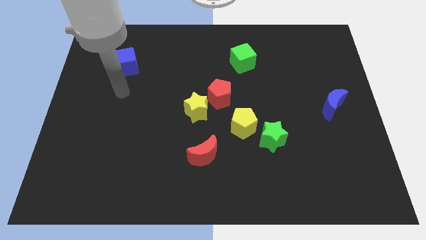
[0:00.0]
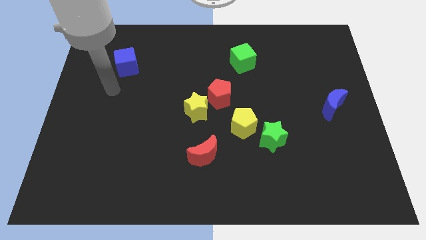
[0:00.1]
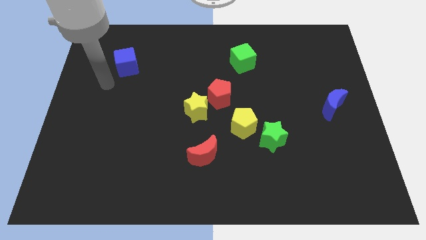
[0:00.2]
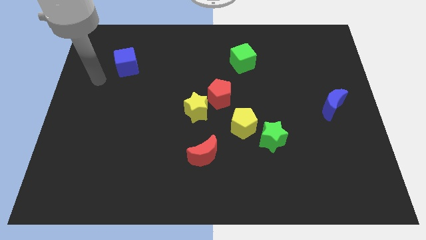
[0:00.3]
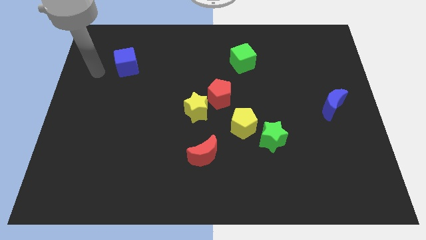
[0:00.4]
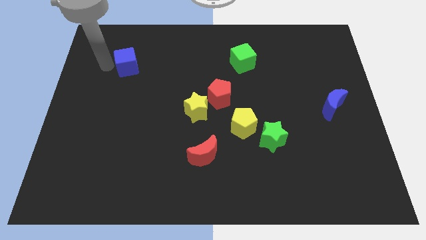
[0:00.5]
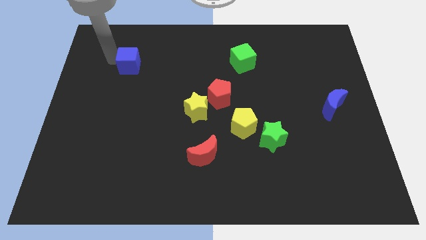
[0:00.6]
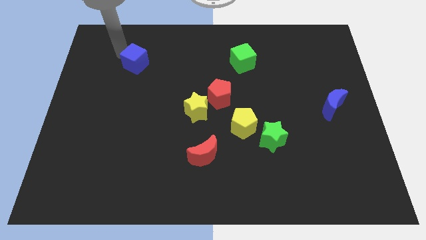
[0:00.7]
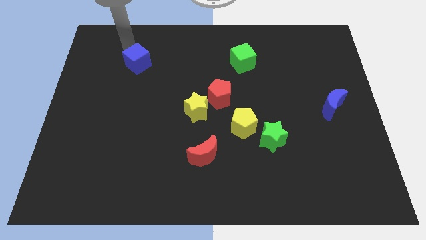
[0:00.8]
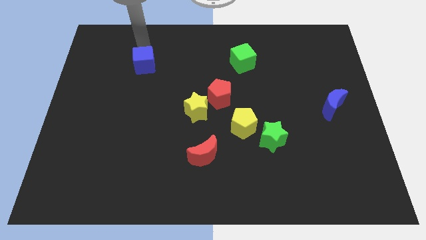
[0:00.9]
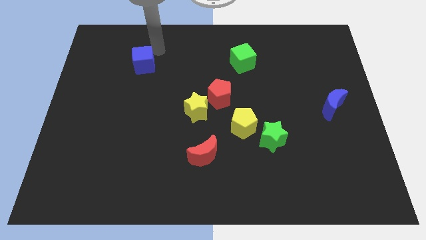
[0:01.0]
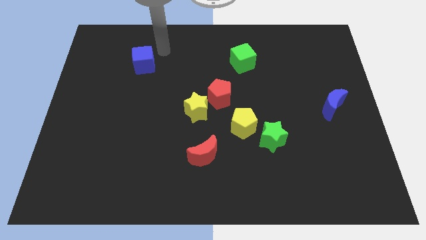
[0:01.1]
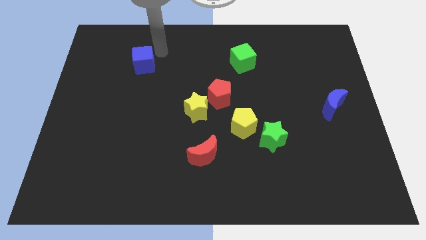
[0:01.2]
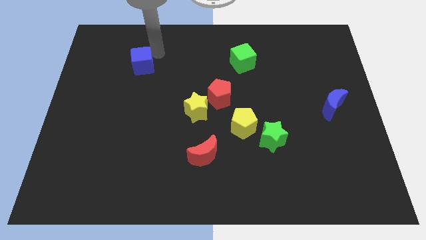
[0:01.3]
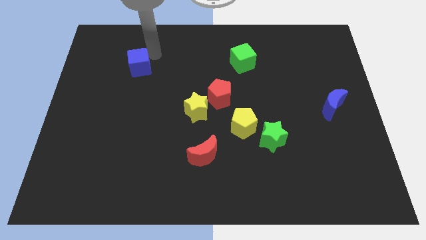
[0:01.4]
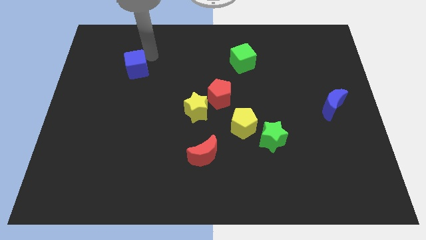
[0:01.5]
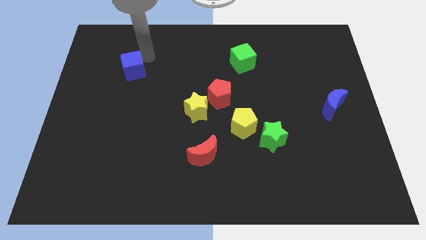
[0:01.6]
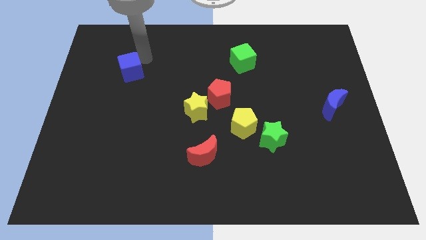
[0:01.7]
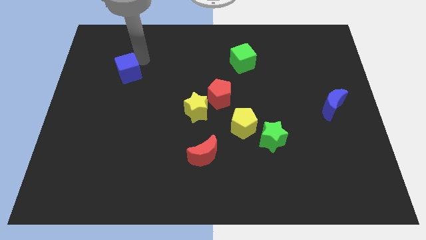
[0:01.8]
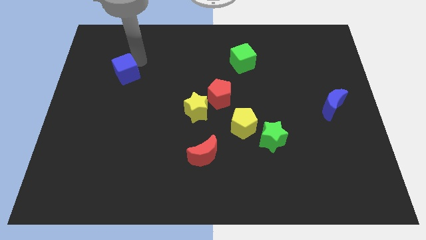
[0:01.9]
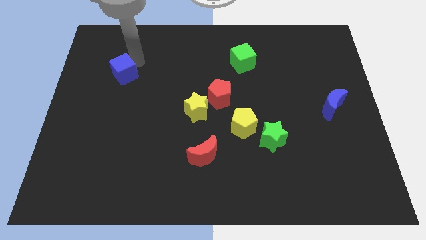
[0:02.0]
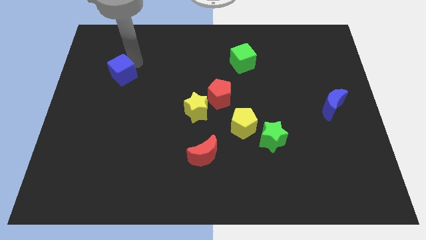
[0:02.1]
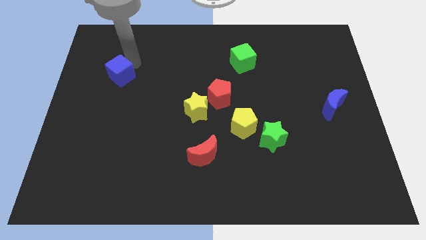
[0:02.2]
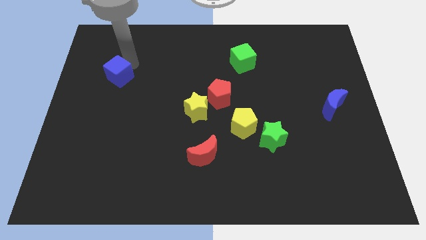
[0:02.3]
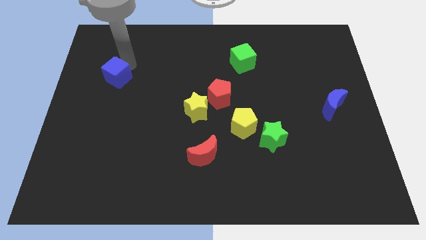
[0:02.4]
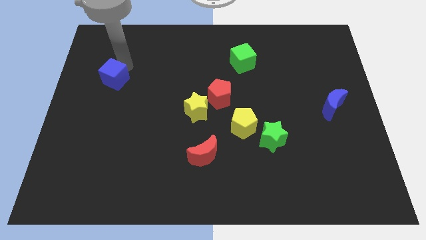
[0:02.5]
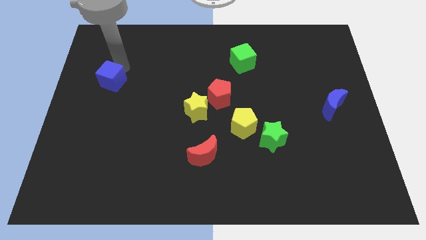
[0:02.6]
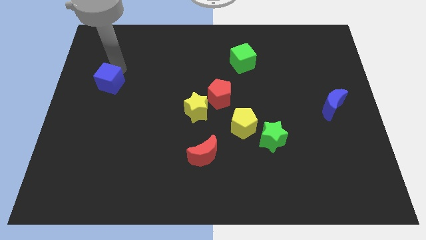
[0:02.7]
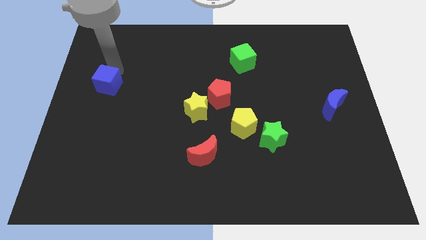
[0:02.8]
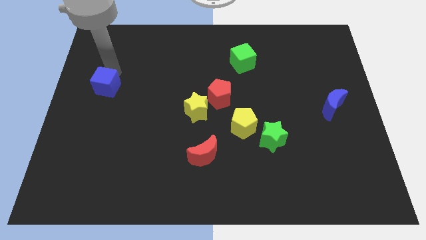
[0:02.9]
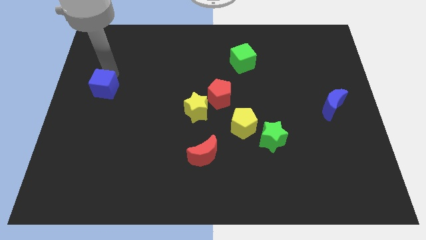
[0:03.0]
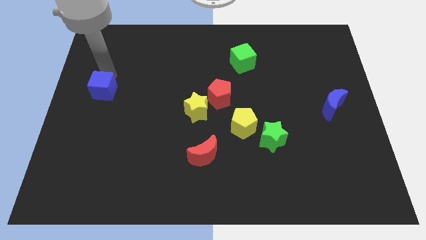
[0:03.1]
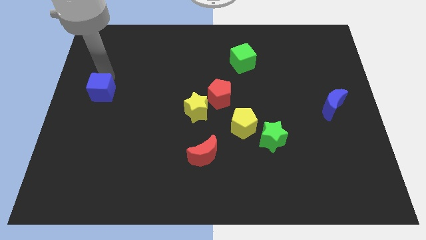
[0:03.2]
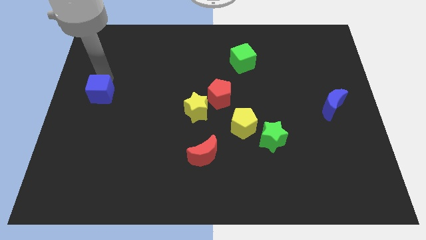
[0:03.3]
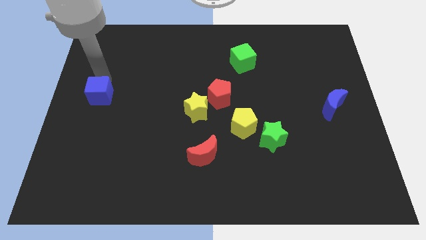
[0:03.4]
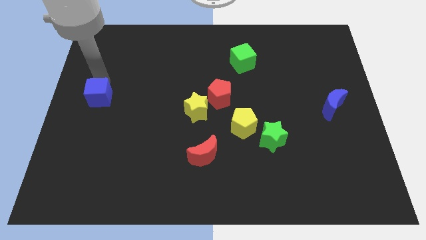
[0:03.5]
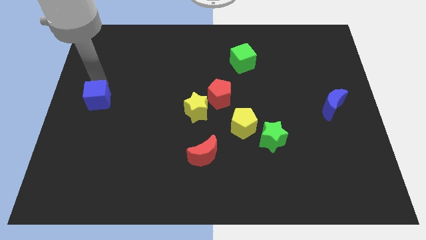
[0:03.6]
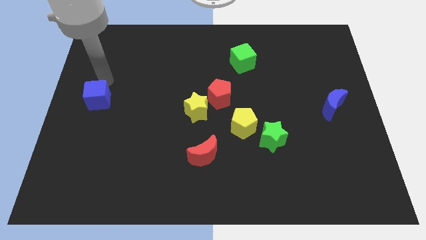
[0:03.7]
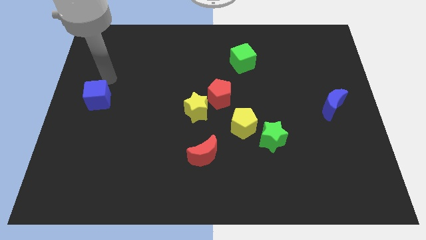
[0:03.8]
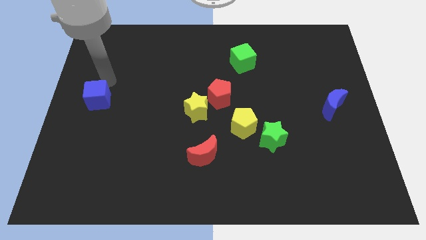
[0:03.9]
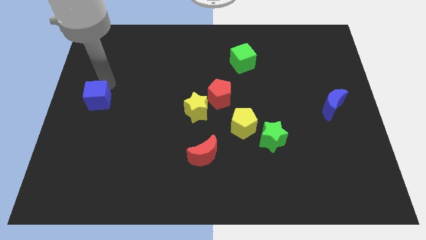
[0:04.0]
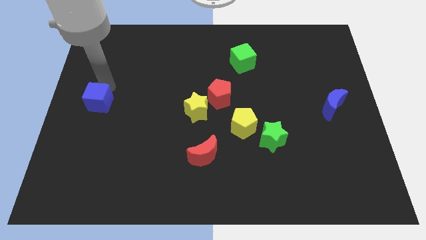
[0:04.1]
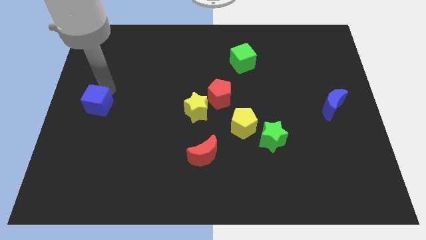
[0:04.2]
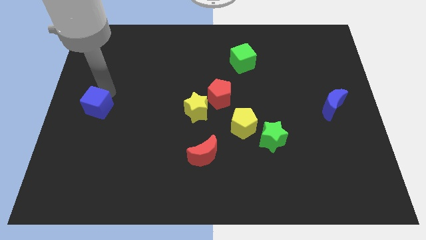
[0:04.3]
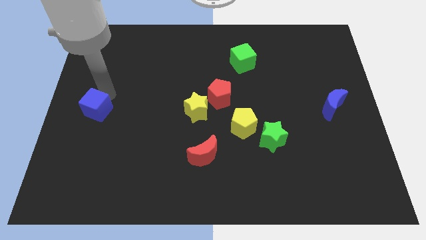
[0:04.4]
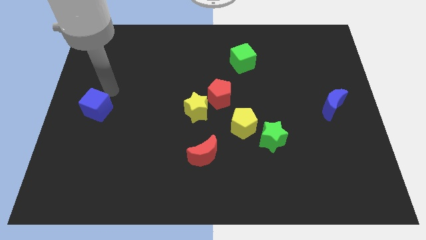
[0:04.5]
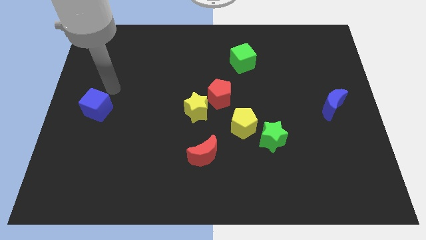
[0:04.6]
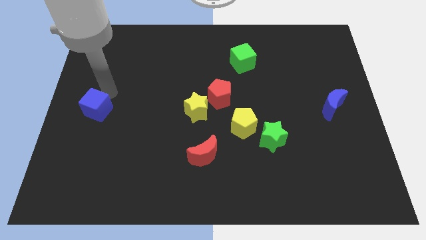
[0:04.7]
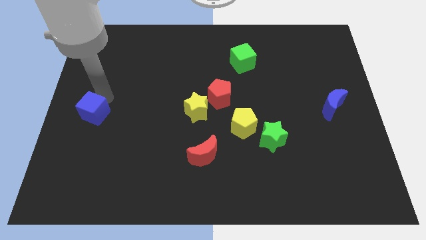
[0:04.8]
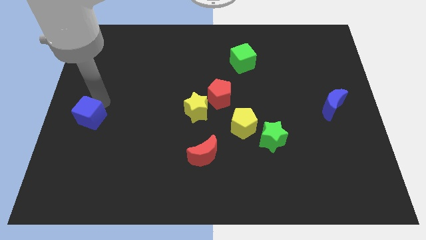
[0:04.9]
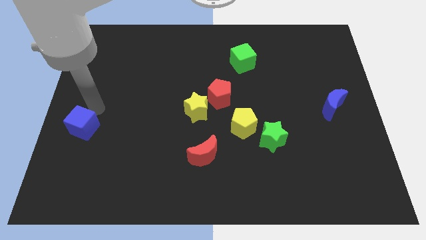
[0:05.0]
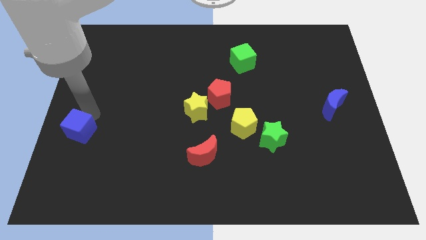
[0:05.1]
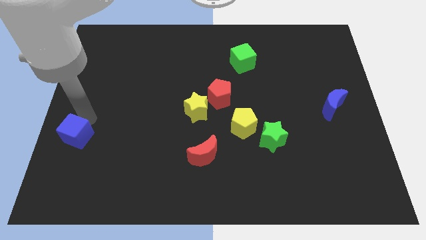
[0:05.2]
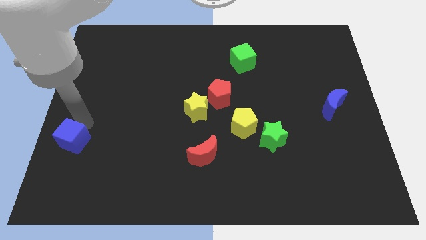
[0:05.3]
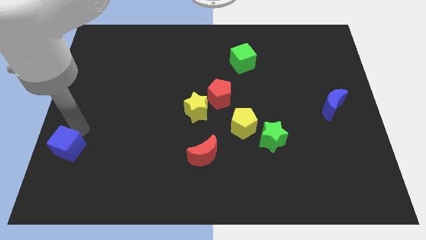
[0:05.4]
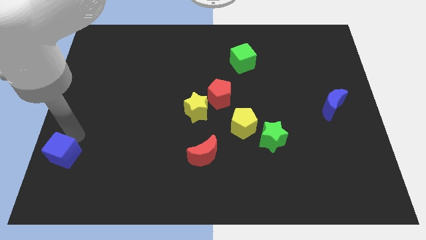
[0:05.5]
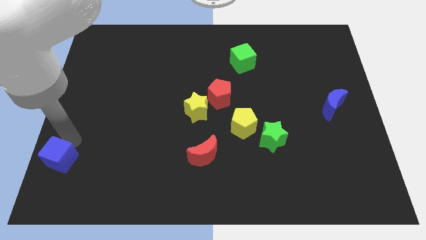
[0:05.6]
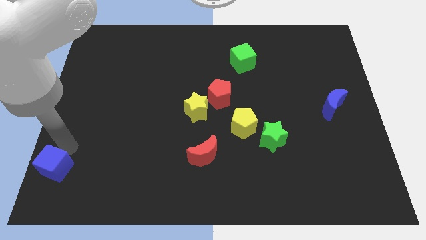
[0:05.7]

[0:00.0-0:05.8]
slide the blue cube to the lower left corner
